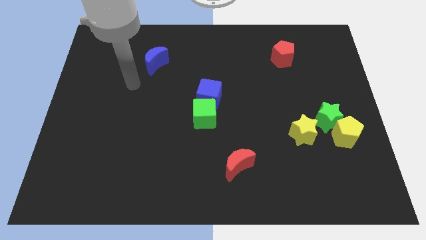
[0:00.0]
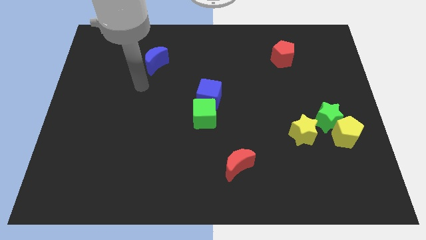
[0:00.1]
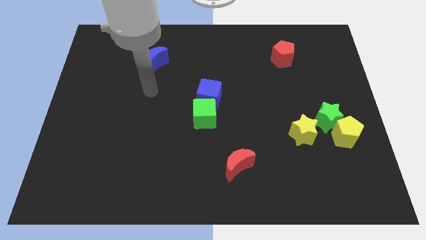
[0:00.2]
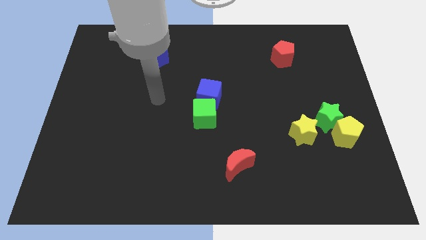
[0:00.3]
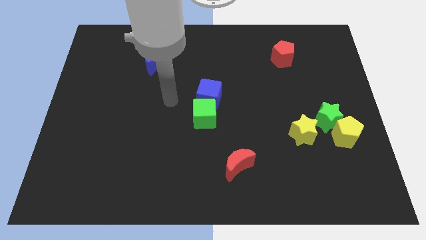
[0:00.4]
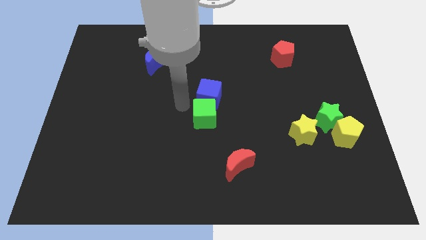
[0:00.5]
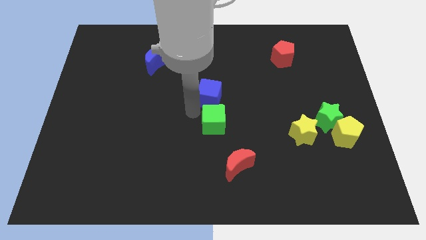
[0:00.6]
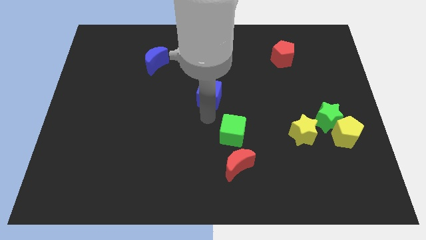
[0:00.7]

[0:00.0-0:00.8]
separate the blue cube from the green cube

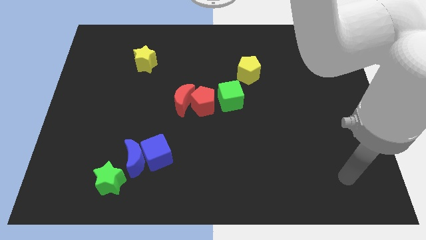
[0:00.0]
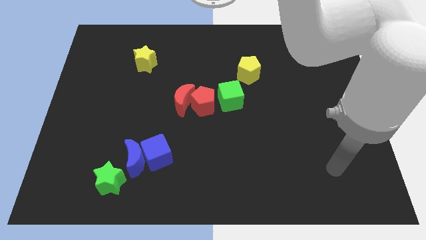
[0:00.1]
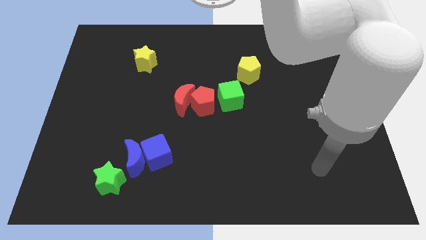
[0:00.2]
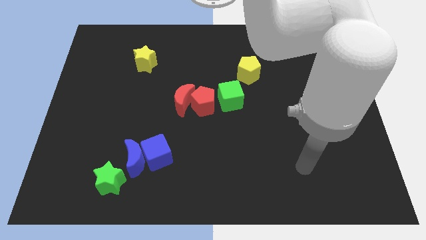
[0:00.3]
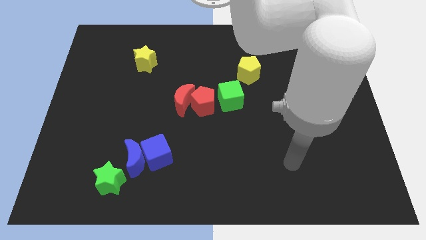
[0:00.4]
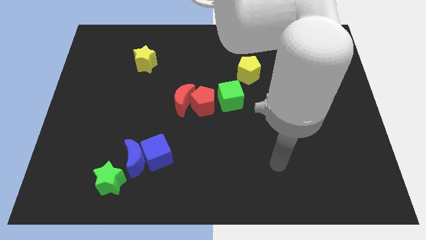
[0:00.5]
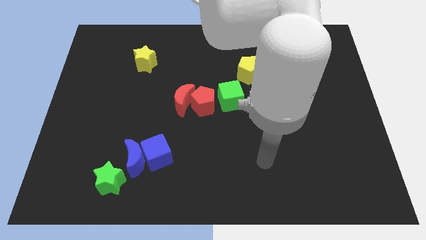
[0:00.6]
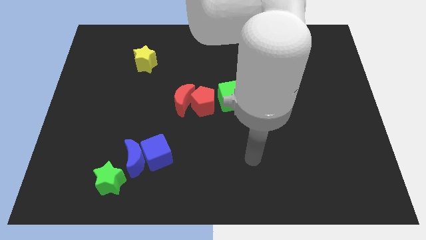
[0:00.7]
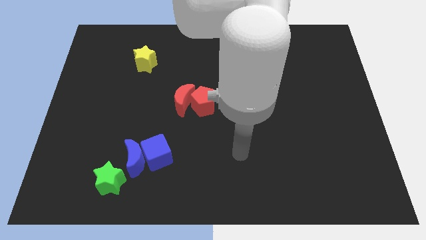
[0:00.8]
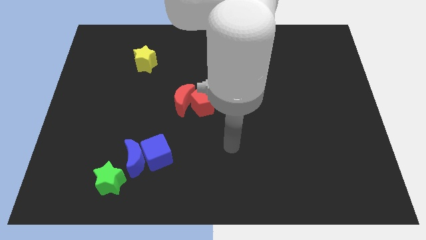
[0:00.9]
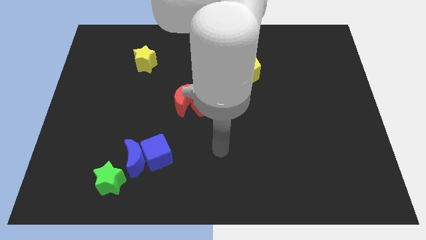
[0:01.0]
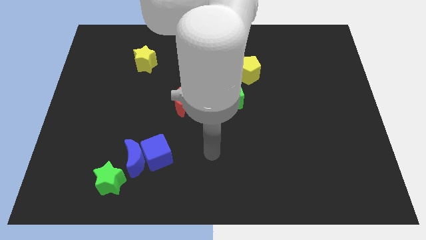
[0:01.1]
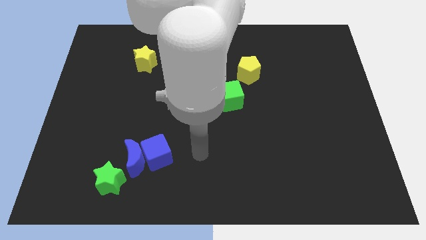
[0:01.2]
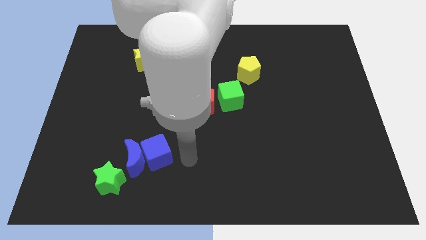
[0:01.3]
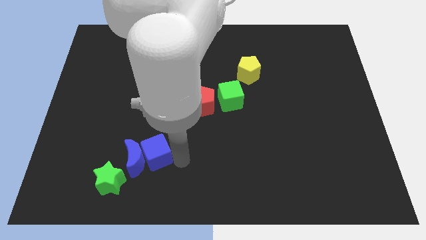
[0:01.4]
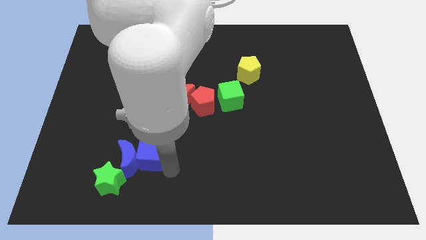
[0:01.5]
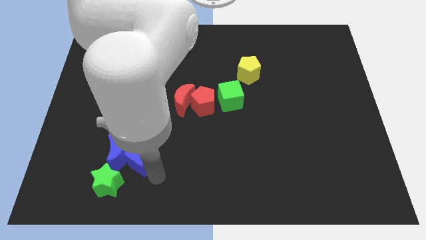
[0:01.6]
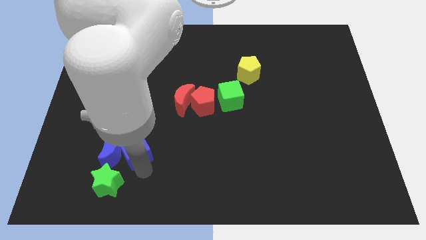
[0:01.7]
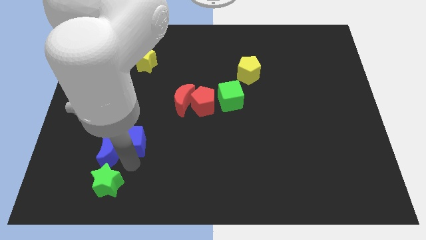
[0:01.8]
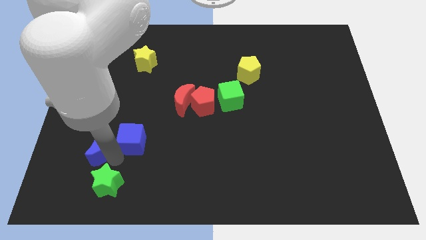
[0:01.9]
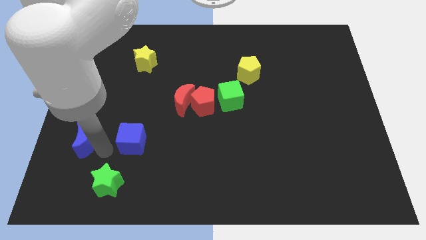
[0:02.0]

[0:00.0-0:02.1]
separate the blue cube from the blue moon

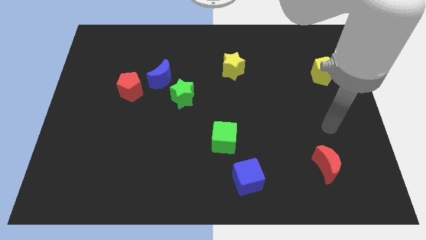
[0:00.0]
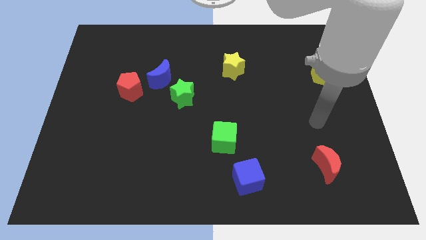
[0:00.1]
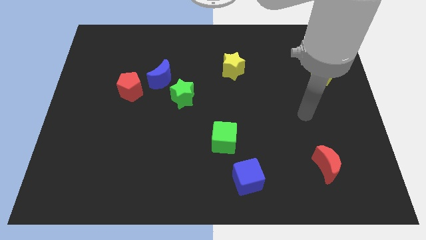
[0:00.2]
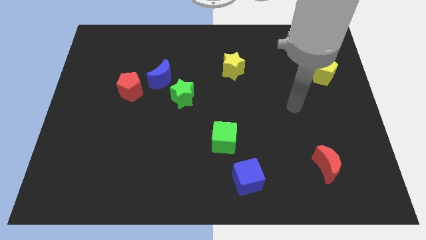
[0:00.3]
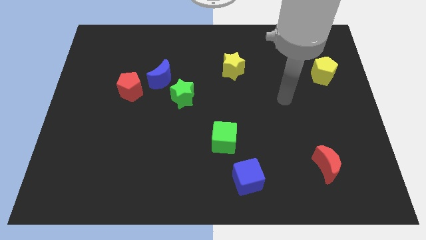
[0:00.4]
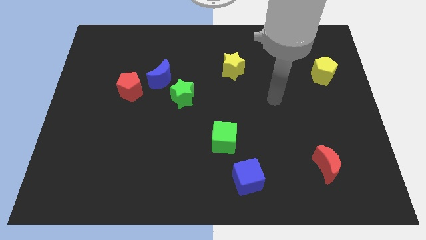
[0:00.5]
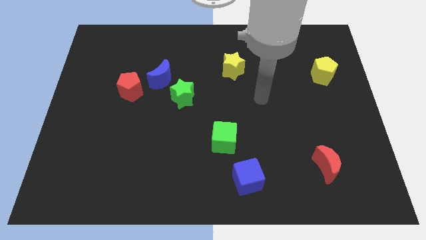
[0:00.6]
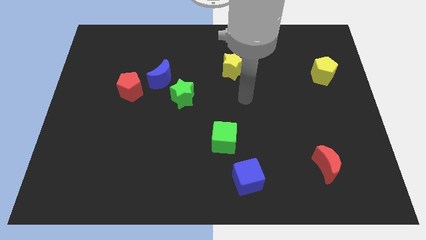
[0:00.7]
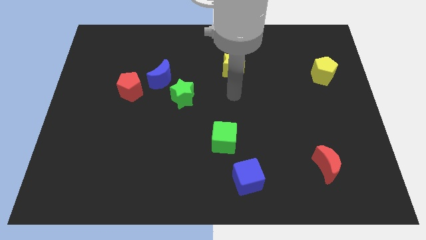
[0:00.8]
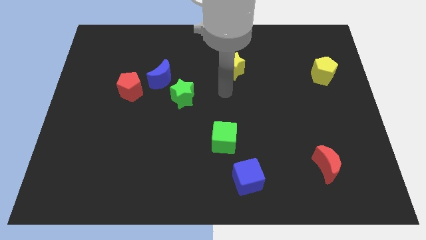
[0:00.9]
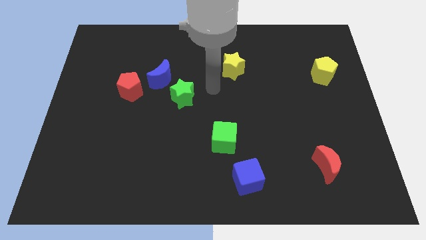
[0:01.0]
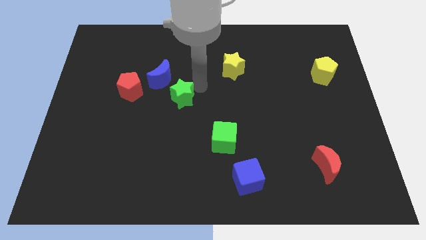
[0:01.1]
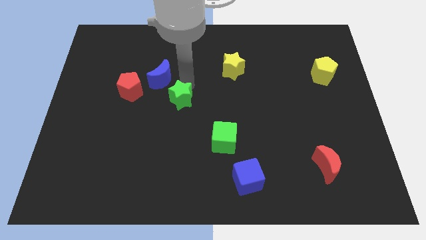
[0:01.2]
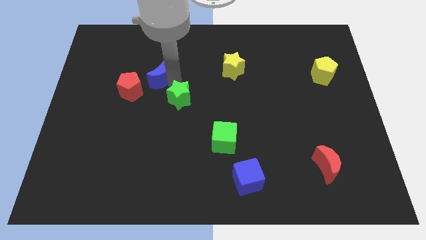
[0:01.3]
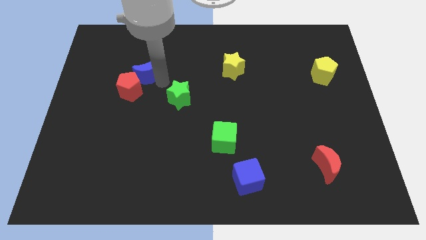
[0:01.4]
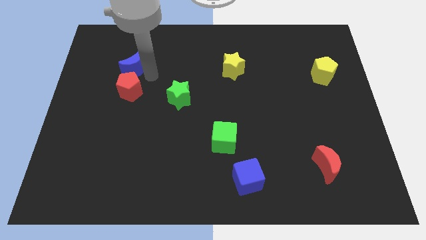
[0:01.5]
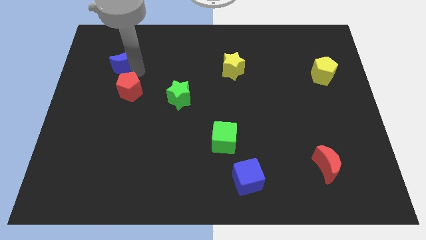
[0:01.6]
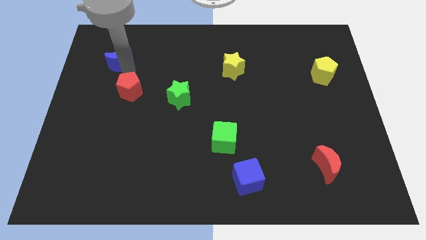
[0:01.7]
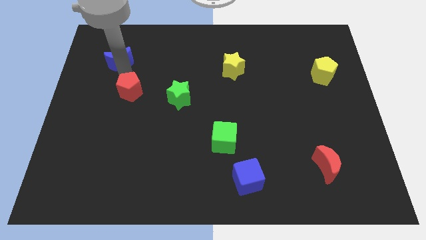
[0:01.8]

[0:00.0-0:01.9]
pull the red pentagon apart from the blue moon

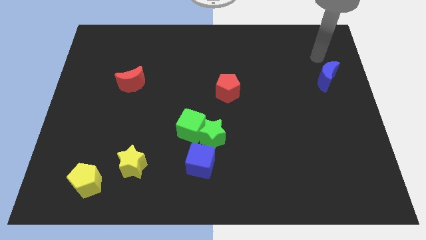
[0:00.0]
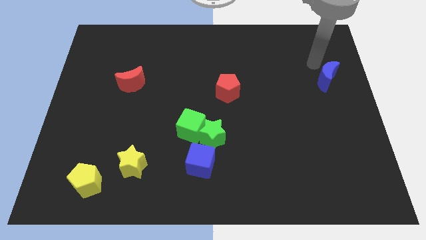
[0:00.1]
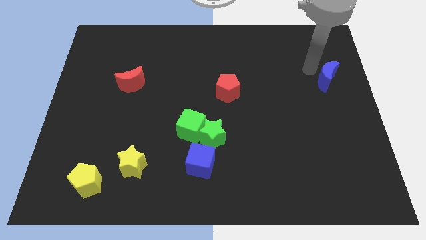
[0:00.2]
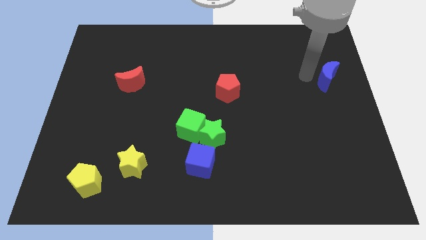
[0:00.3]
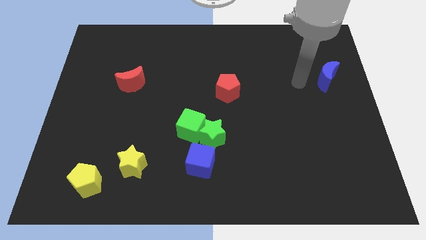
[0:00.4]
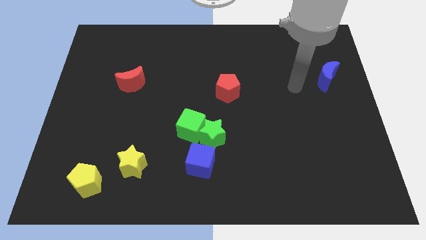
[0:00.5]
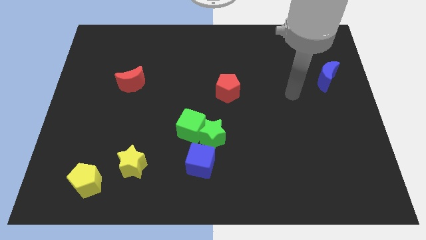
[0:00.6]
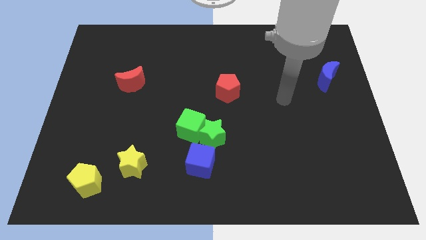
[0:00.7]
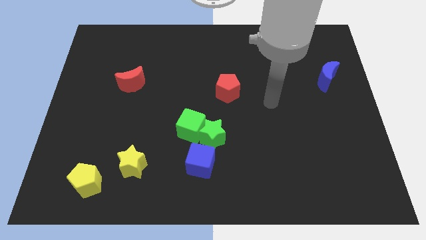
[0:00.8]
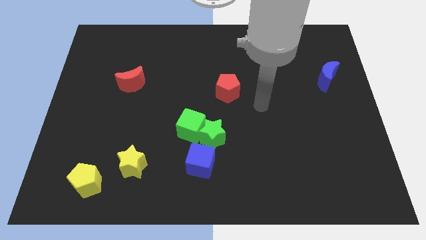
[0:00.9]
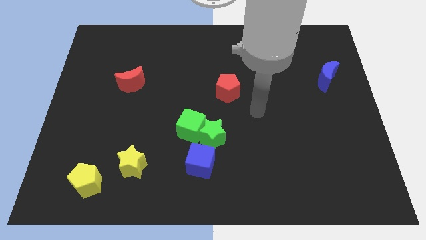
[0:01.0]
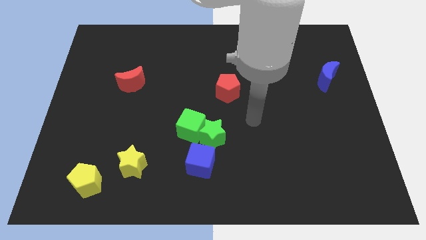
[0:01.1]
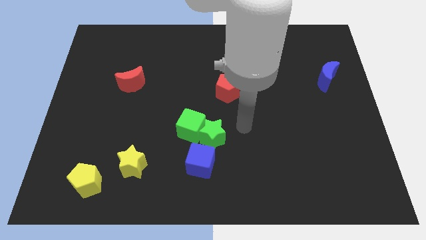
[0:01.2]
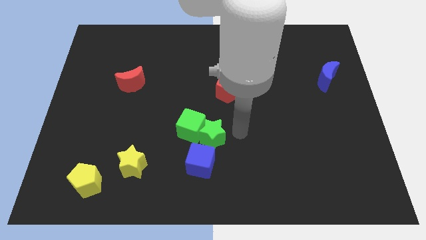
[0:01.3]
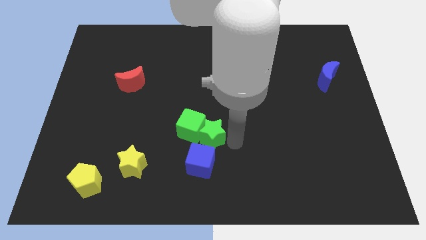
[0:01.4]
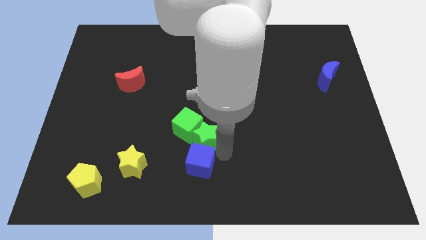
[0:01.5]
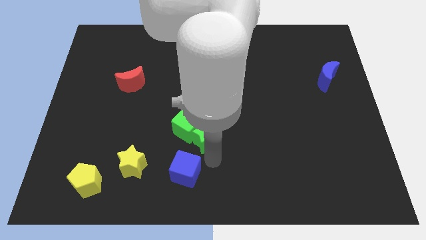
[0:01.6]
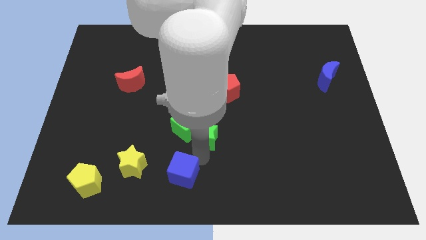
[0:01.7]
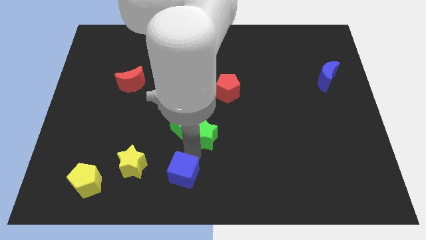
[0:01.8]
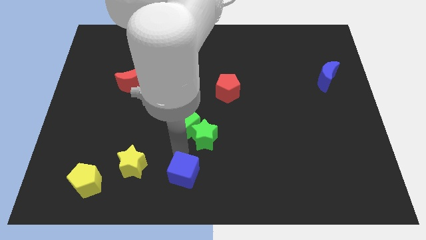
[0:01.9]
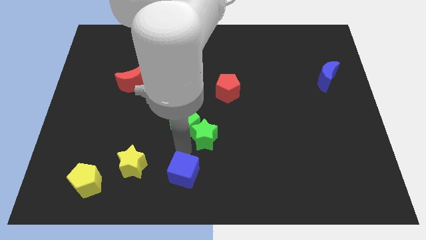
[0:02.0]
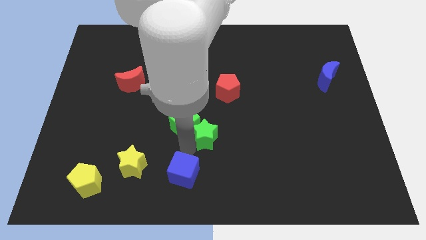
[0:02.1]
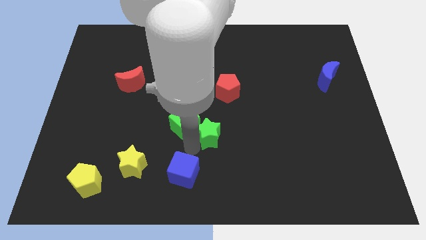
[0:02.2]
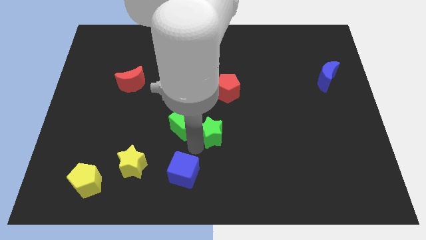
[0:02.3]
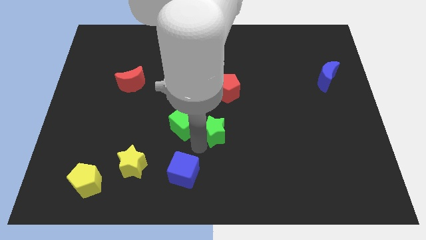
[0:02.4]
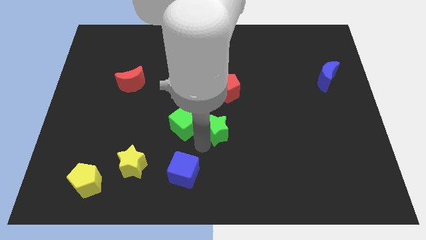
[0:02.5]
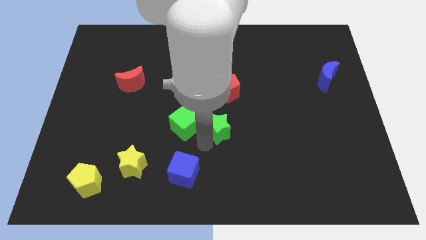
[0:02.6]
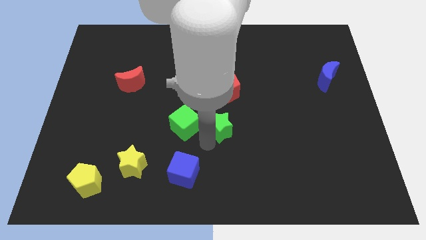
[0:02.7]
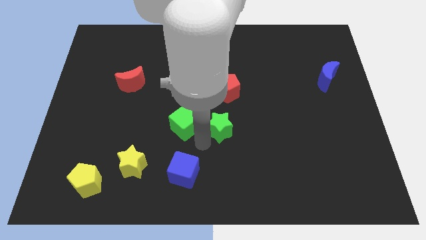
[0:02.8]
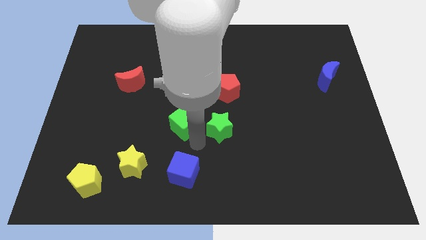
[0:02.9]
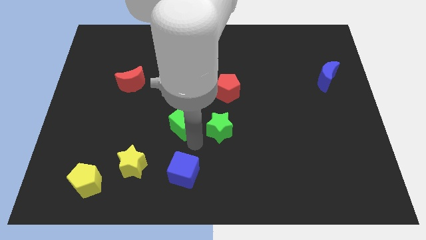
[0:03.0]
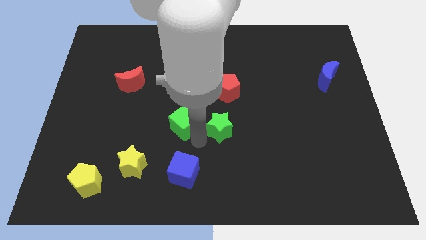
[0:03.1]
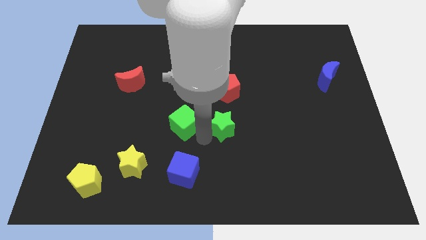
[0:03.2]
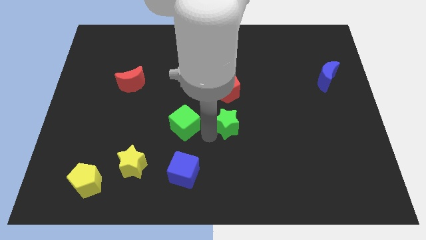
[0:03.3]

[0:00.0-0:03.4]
move the green star away from the green cube and blue cube

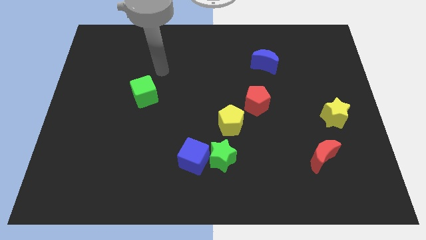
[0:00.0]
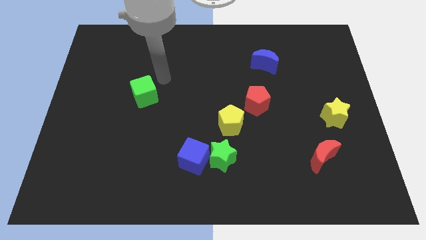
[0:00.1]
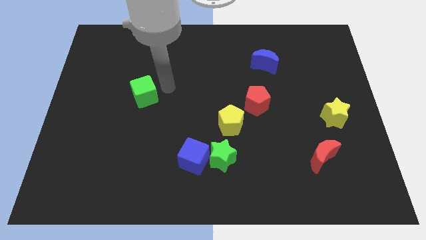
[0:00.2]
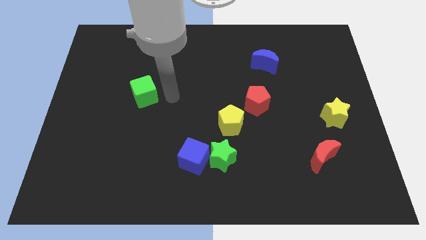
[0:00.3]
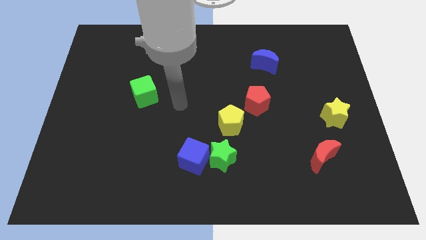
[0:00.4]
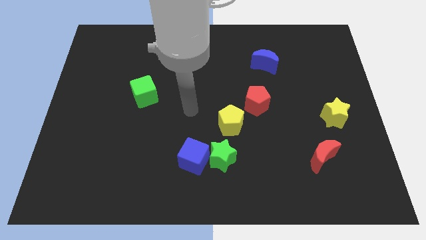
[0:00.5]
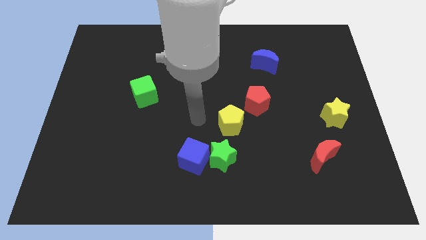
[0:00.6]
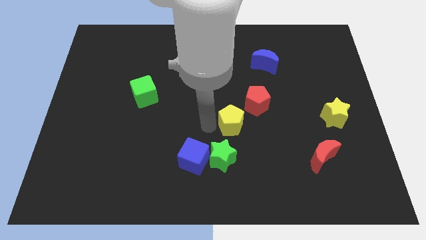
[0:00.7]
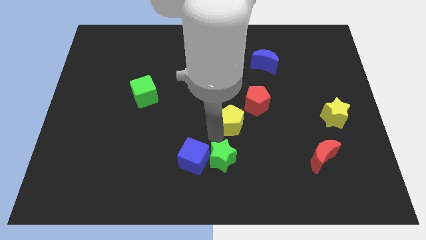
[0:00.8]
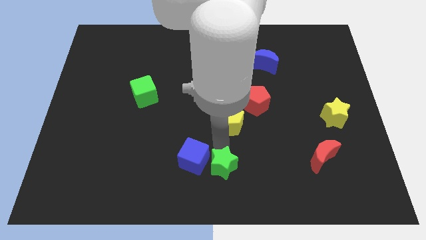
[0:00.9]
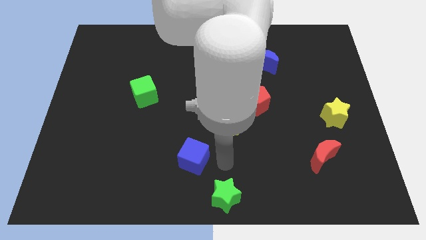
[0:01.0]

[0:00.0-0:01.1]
separate the blue cube from the green star
